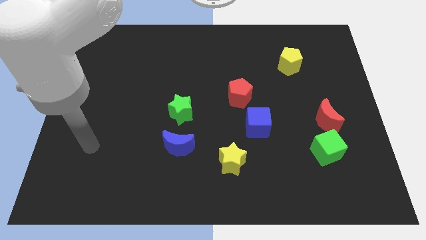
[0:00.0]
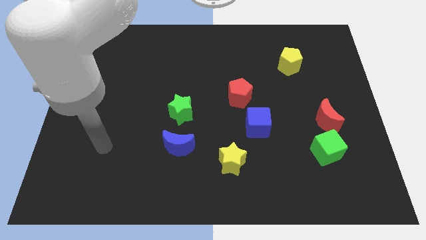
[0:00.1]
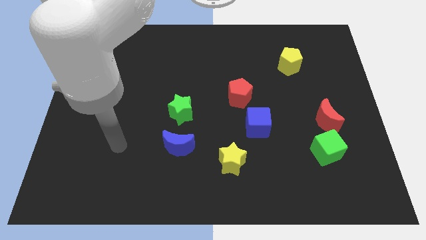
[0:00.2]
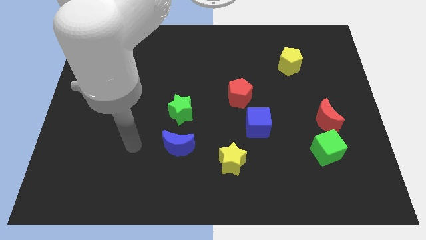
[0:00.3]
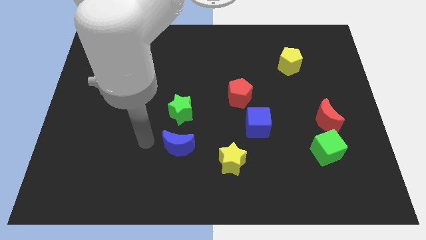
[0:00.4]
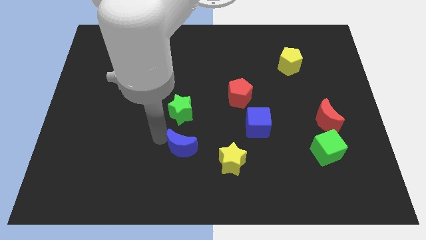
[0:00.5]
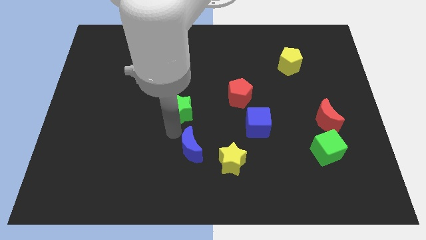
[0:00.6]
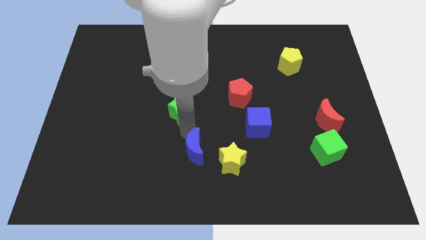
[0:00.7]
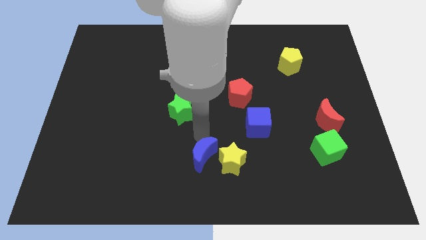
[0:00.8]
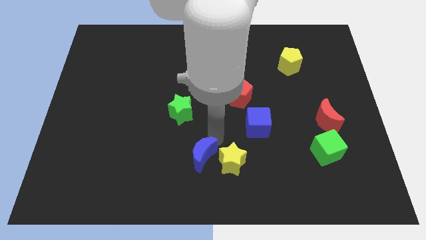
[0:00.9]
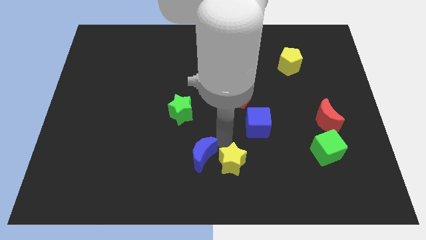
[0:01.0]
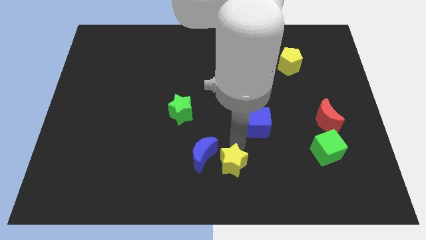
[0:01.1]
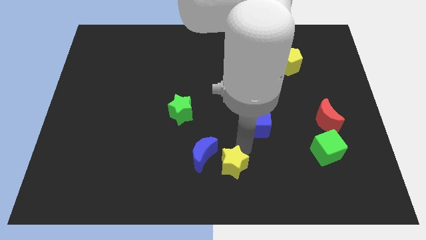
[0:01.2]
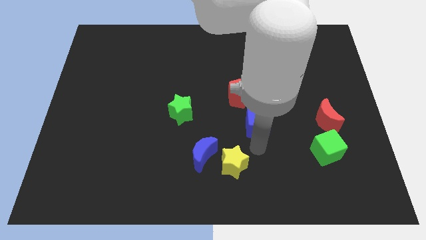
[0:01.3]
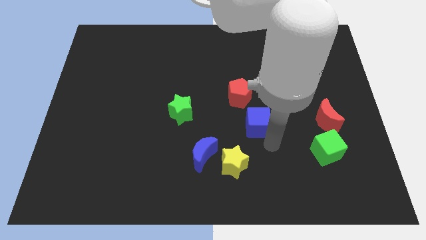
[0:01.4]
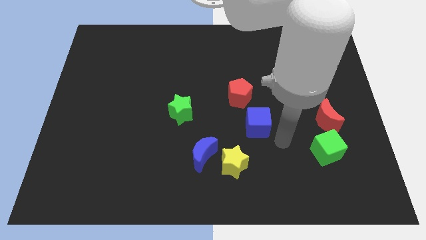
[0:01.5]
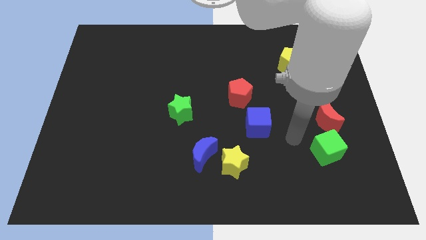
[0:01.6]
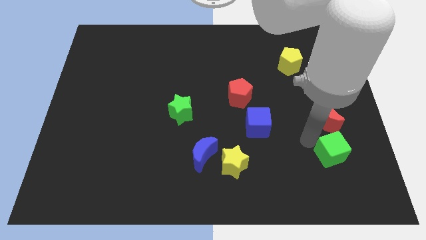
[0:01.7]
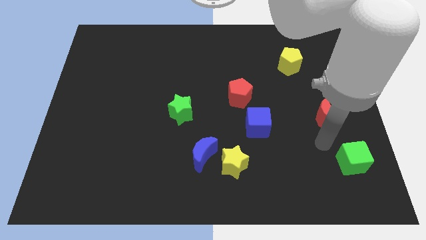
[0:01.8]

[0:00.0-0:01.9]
separate the red moon from the green cube

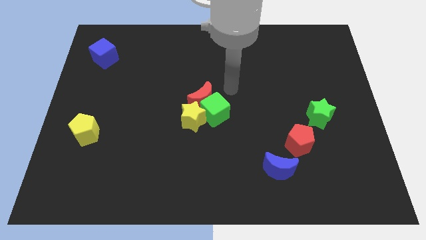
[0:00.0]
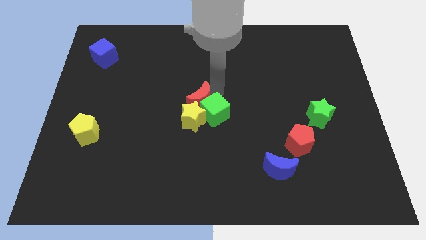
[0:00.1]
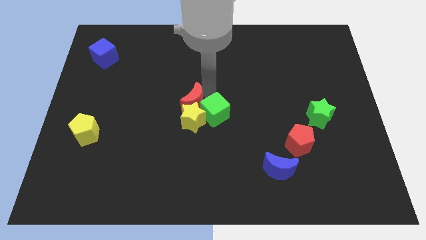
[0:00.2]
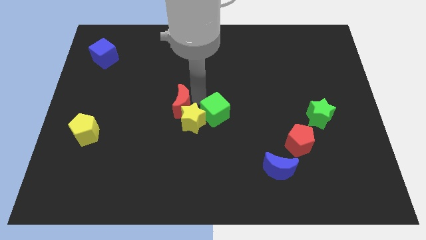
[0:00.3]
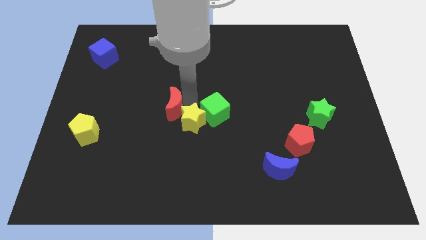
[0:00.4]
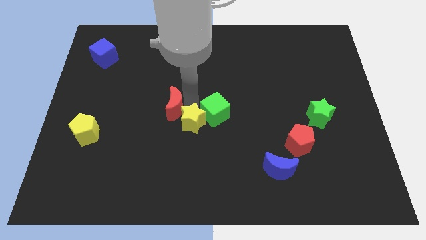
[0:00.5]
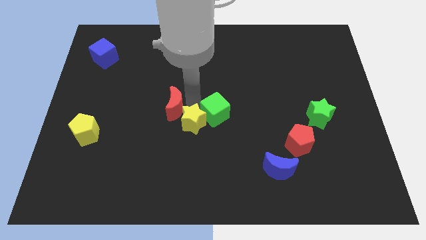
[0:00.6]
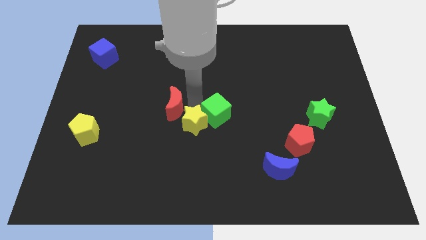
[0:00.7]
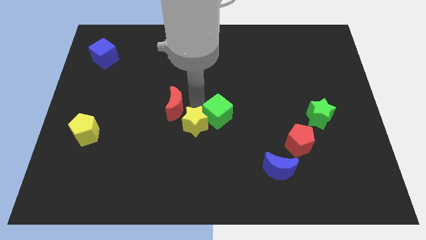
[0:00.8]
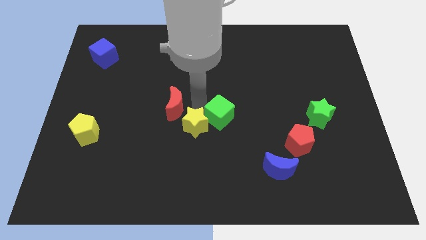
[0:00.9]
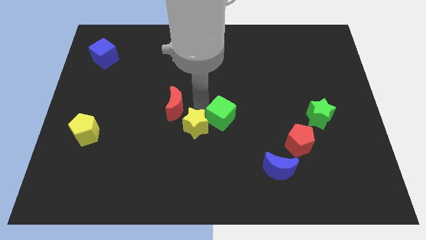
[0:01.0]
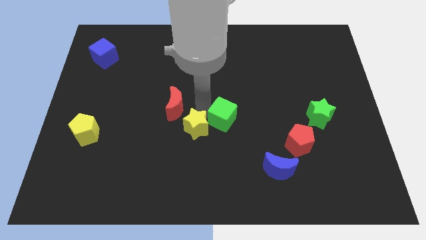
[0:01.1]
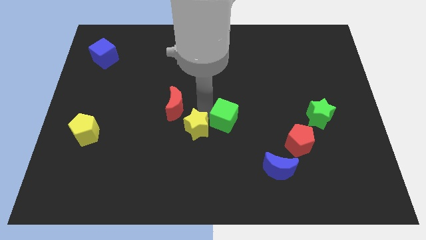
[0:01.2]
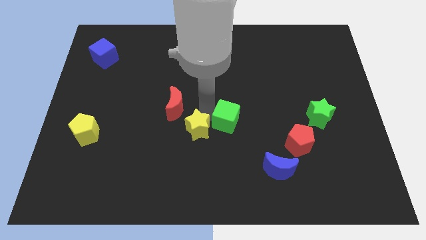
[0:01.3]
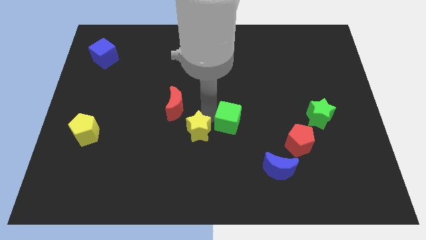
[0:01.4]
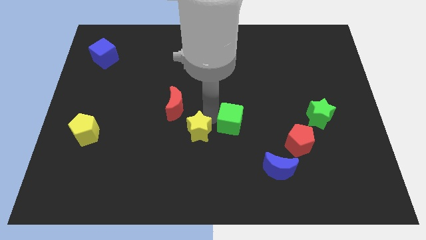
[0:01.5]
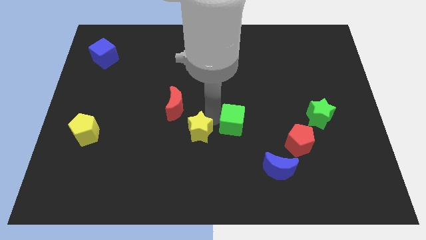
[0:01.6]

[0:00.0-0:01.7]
separate the green cube from the red moon and yellow star

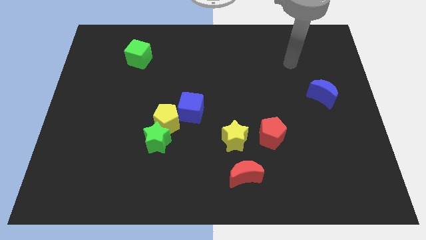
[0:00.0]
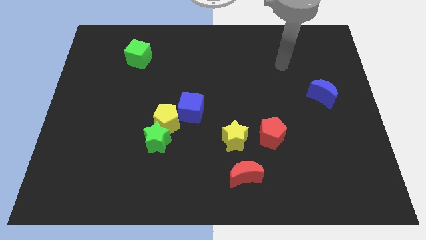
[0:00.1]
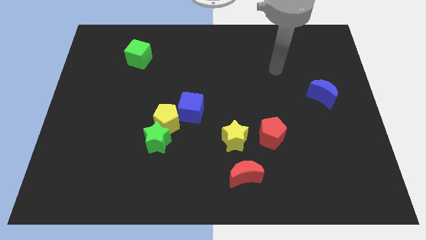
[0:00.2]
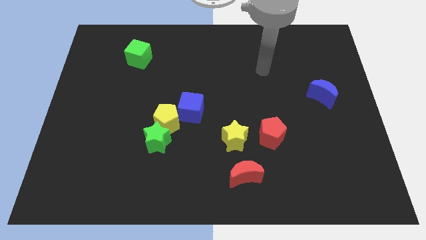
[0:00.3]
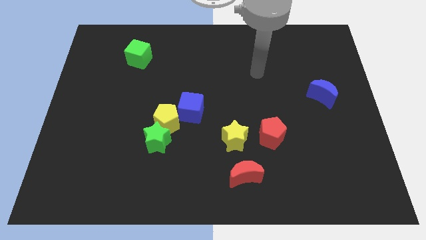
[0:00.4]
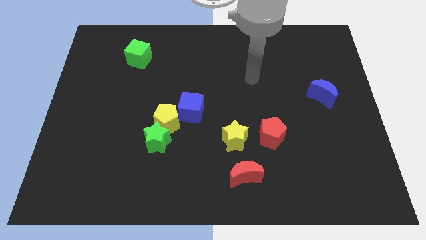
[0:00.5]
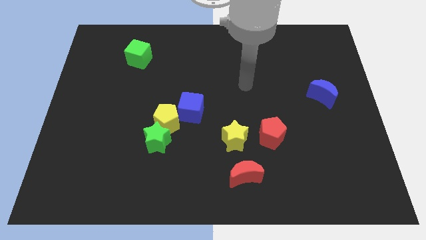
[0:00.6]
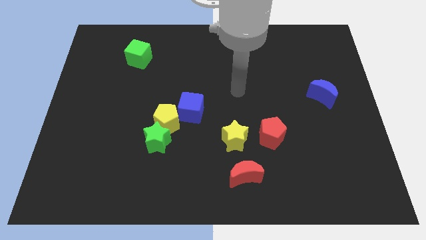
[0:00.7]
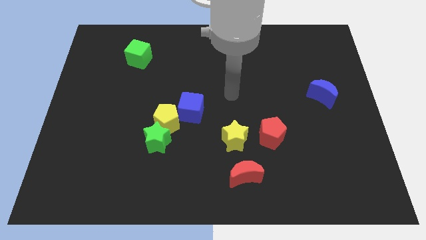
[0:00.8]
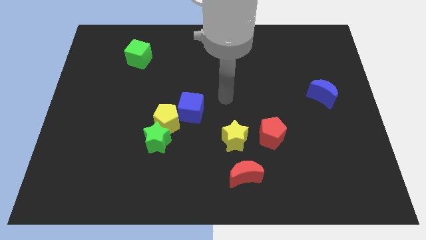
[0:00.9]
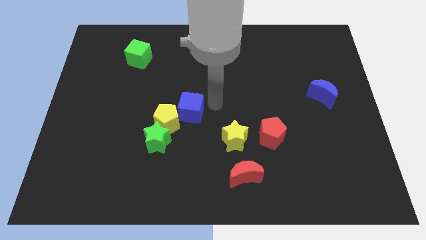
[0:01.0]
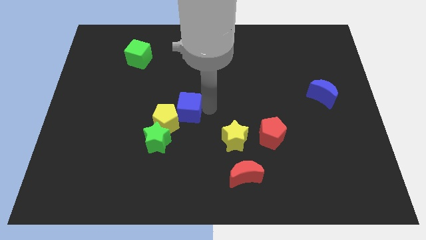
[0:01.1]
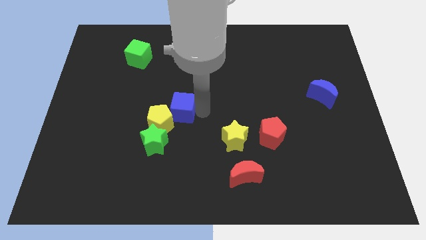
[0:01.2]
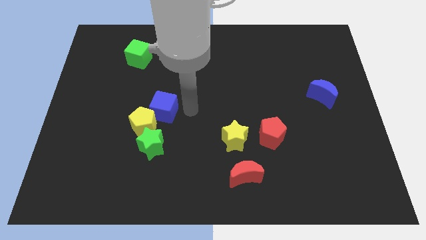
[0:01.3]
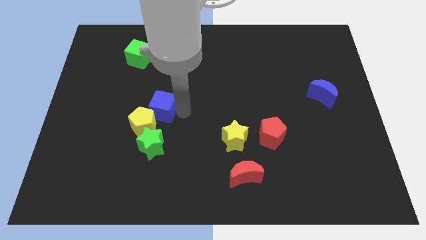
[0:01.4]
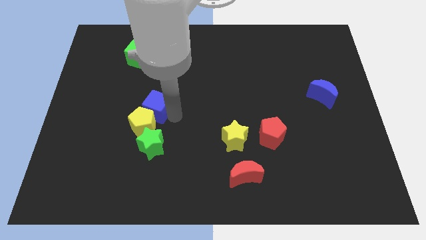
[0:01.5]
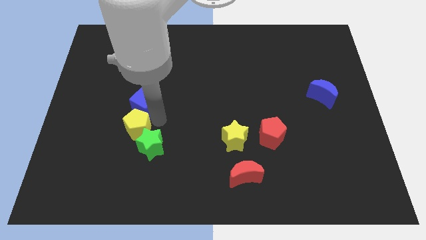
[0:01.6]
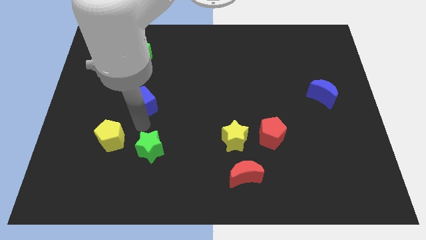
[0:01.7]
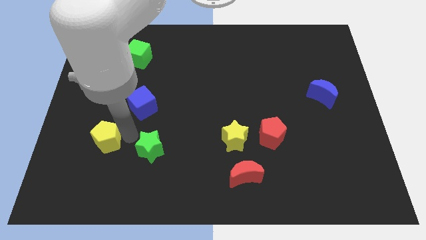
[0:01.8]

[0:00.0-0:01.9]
move the green star away from the yellow pentagon

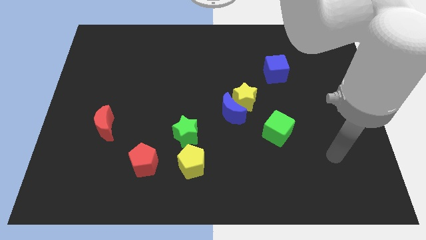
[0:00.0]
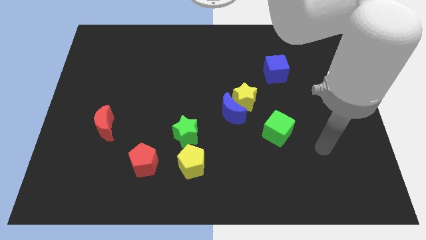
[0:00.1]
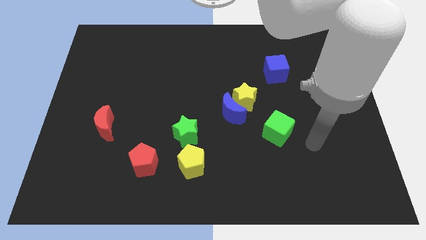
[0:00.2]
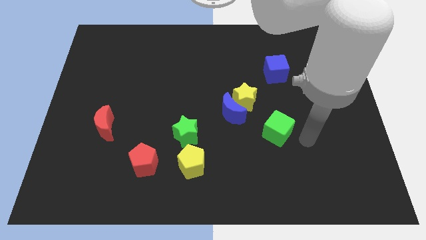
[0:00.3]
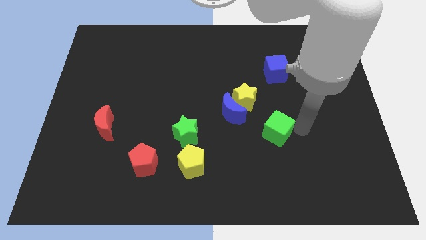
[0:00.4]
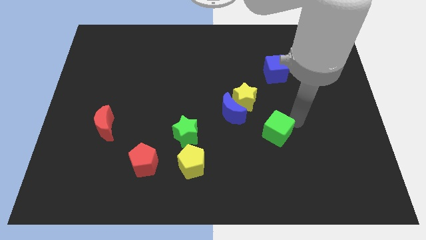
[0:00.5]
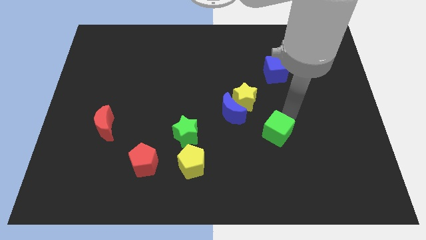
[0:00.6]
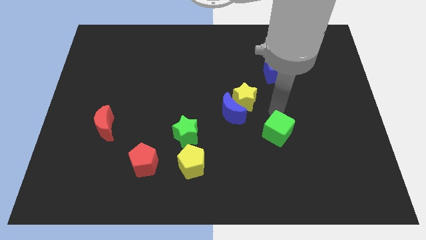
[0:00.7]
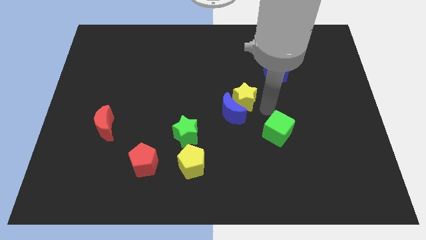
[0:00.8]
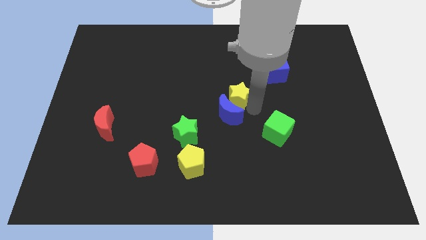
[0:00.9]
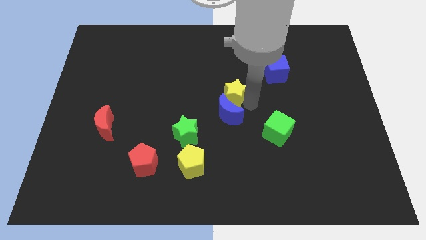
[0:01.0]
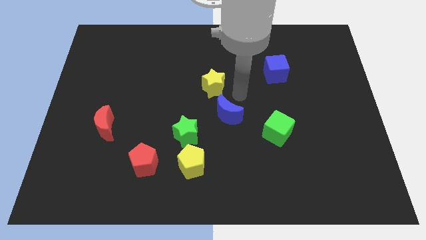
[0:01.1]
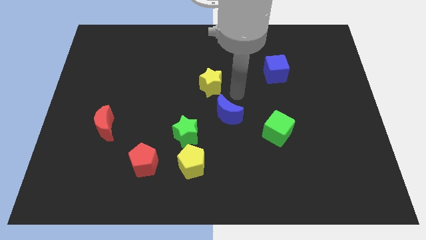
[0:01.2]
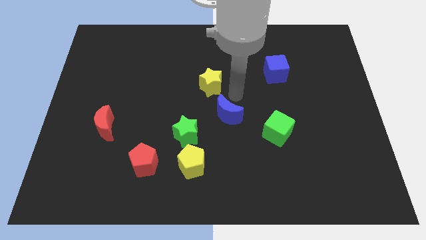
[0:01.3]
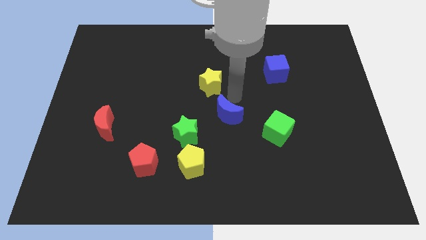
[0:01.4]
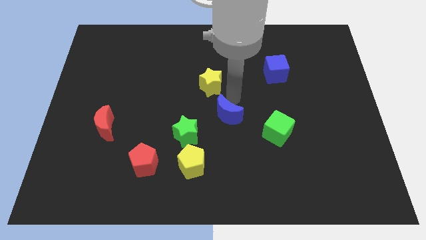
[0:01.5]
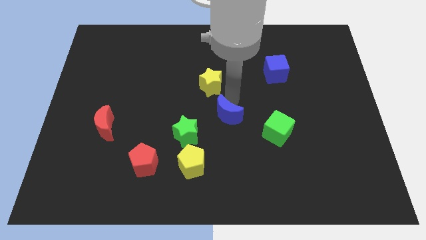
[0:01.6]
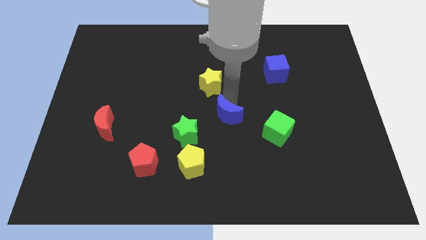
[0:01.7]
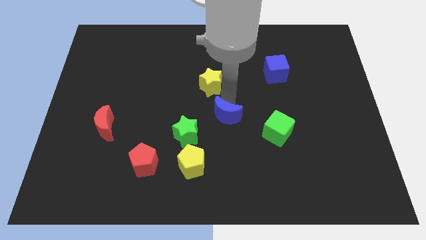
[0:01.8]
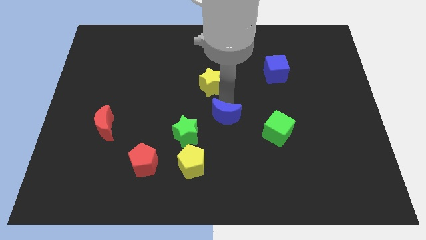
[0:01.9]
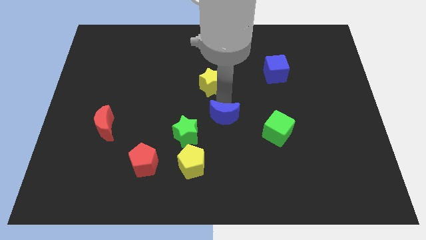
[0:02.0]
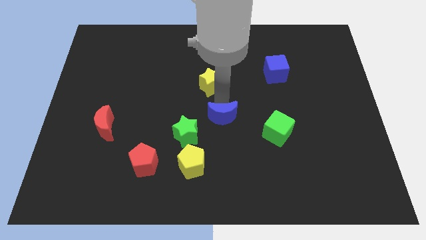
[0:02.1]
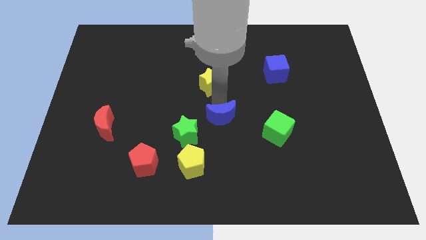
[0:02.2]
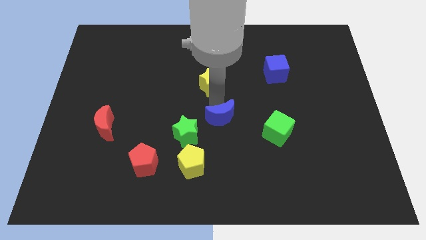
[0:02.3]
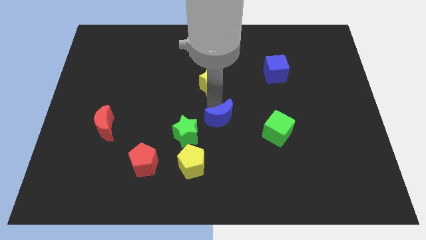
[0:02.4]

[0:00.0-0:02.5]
move the blue moon away from the yellow star

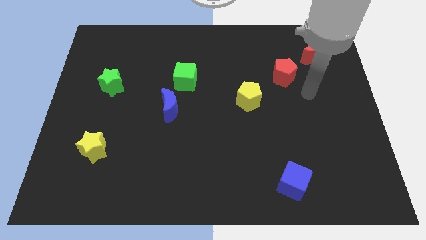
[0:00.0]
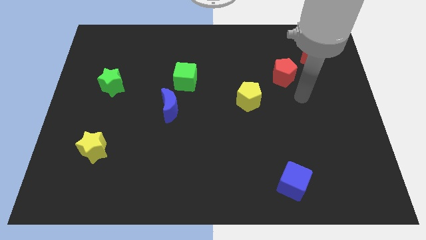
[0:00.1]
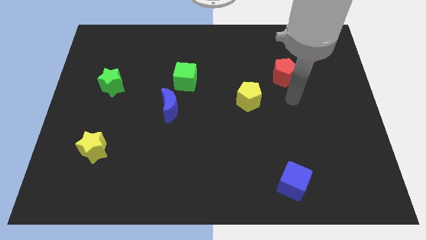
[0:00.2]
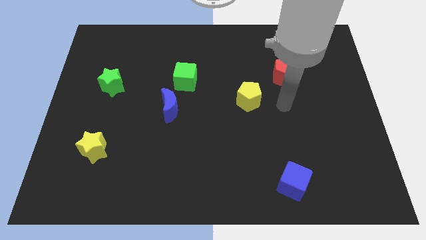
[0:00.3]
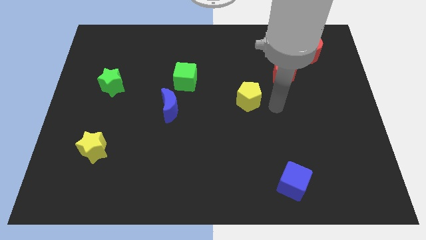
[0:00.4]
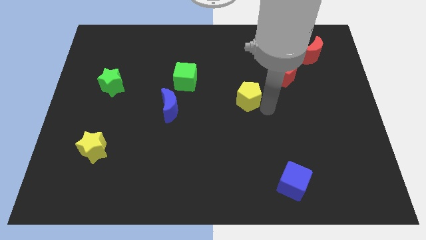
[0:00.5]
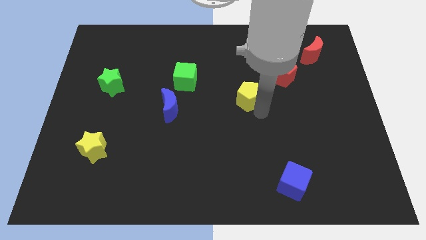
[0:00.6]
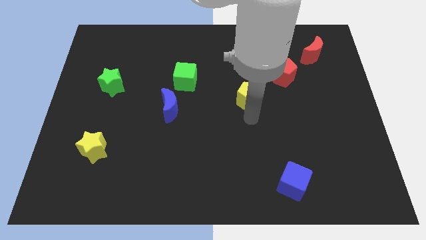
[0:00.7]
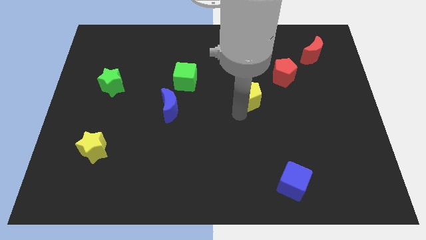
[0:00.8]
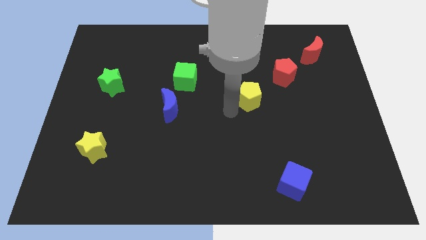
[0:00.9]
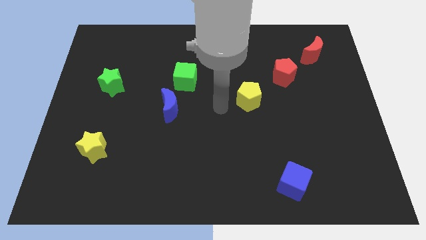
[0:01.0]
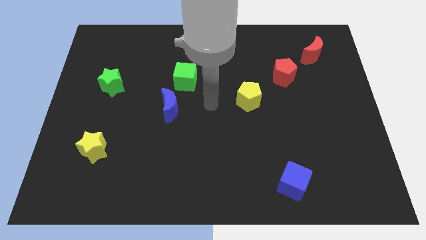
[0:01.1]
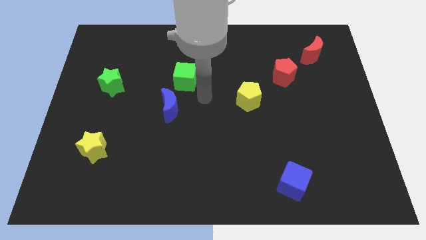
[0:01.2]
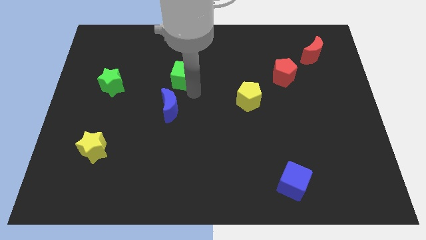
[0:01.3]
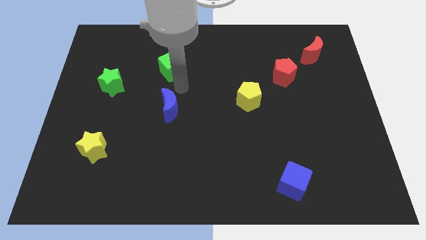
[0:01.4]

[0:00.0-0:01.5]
separate the blue moon from the green cube
